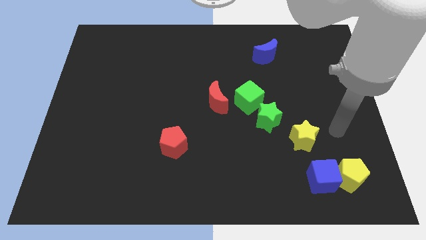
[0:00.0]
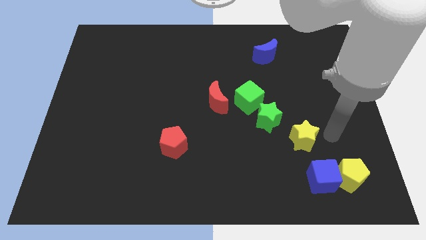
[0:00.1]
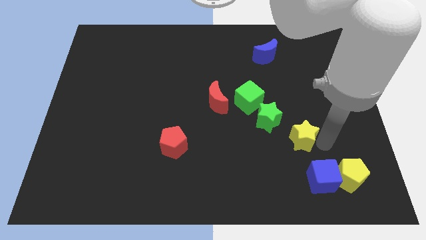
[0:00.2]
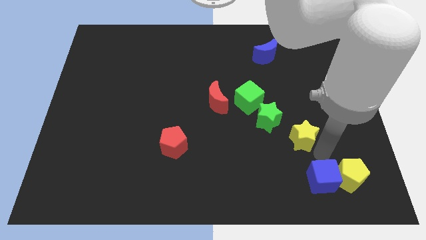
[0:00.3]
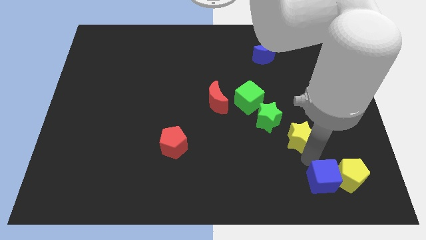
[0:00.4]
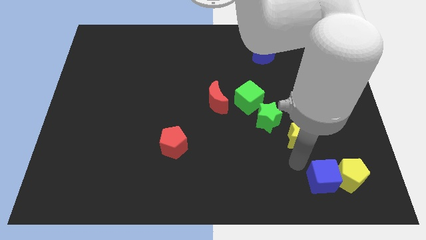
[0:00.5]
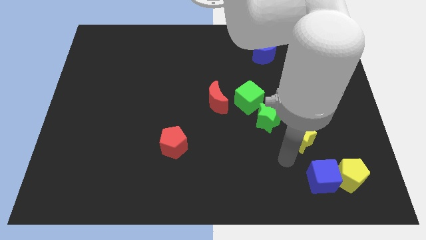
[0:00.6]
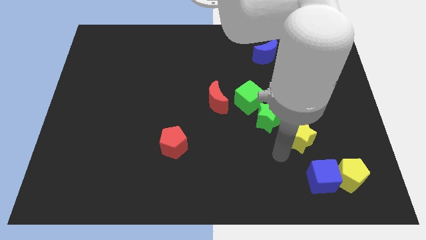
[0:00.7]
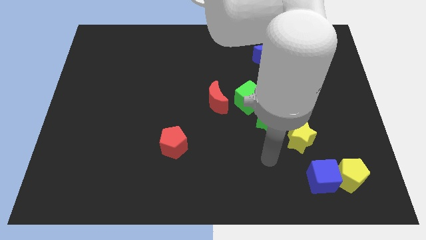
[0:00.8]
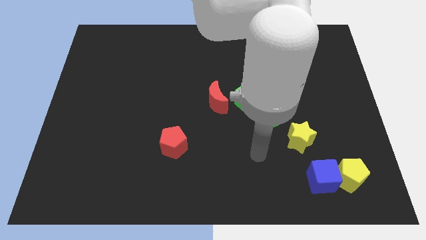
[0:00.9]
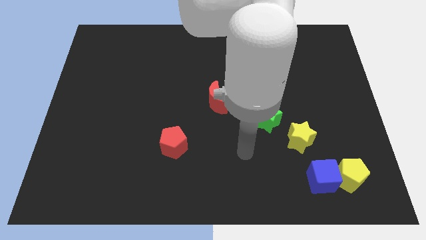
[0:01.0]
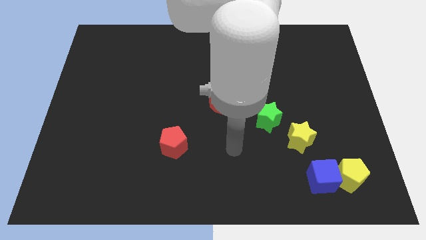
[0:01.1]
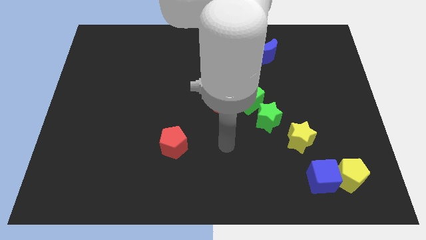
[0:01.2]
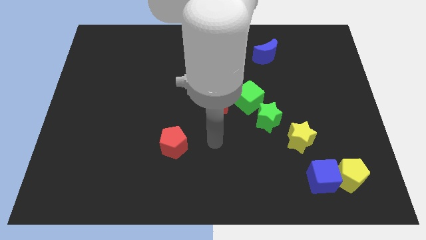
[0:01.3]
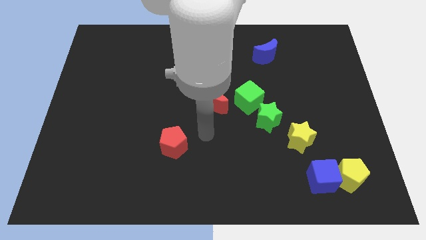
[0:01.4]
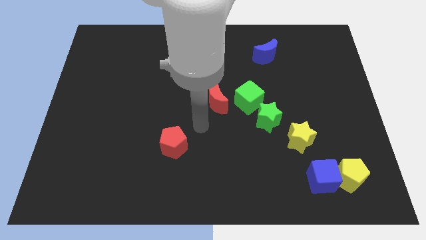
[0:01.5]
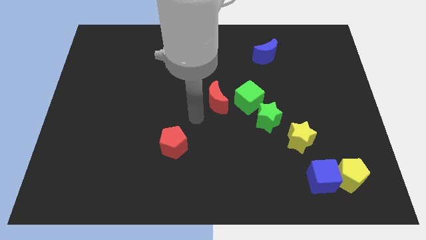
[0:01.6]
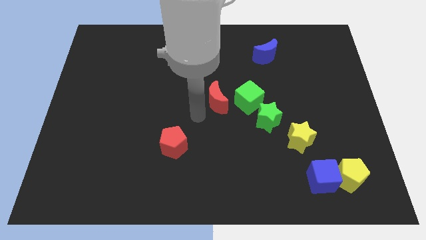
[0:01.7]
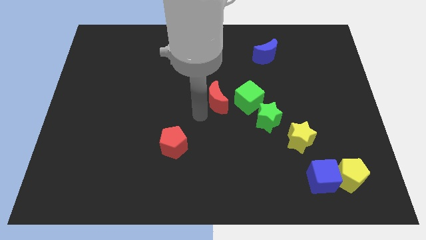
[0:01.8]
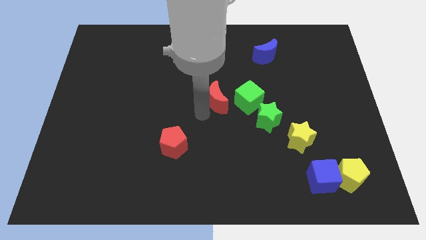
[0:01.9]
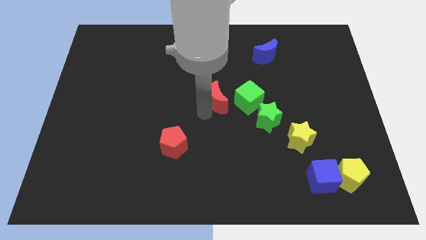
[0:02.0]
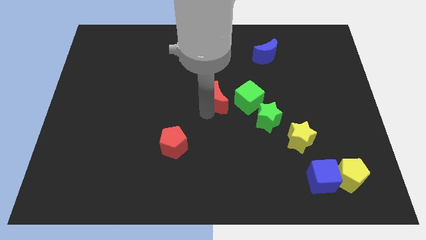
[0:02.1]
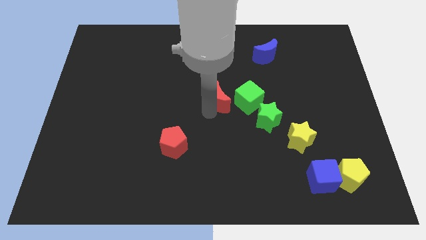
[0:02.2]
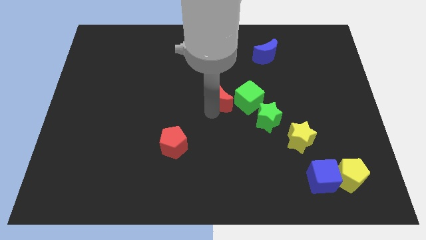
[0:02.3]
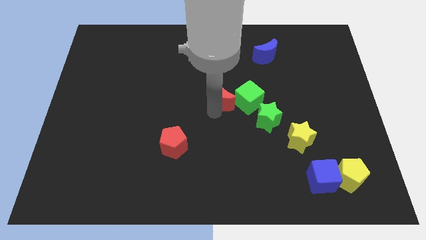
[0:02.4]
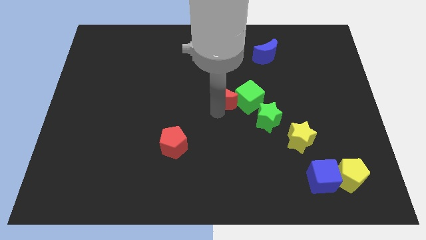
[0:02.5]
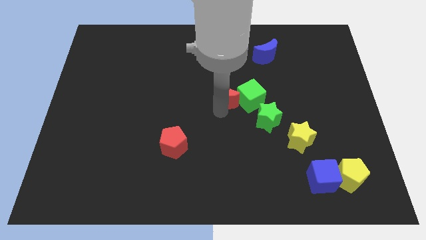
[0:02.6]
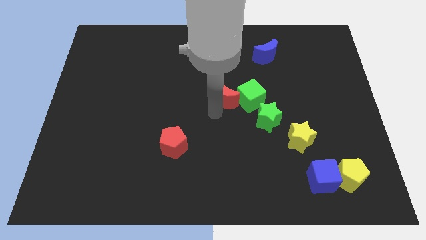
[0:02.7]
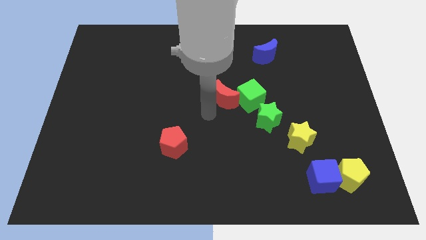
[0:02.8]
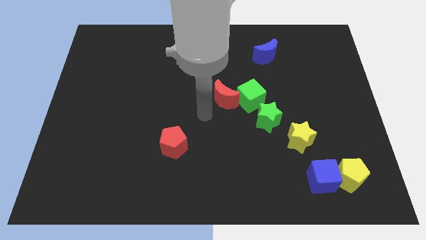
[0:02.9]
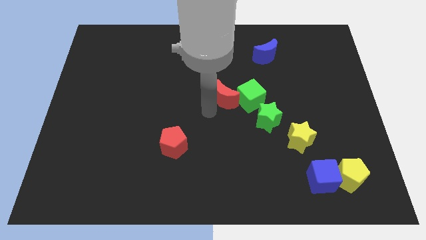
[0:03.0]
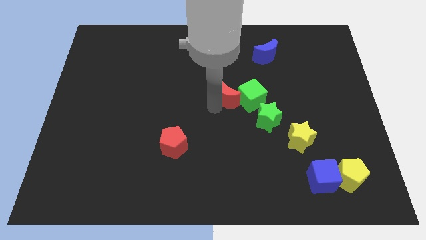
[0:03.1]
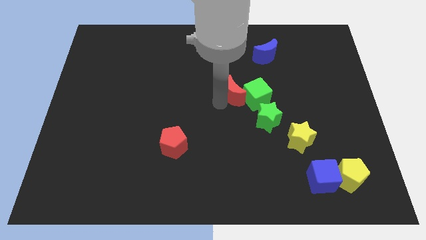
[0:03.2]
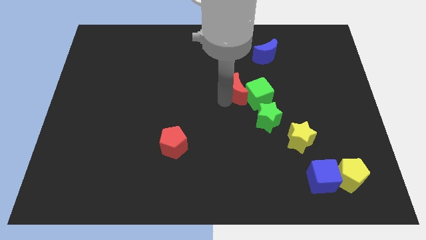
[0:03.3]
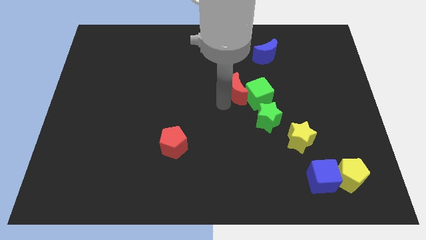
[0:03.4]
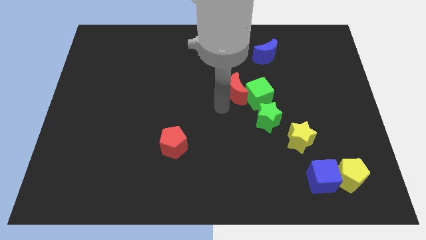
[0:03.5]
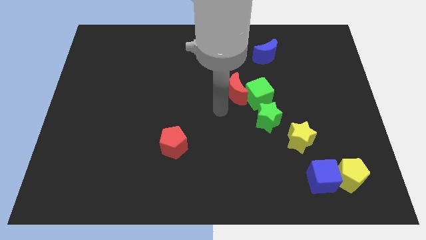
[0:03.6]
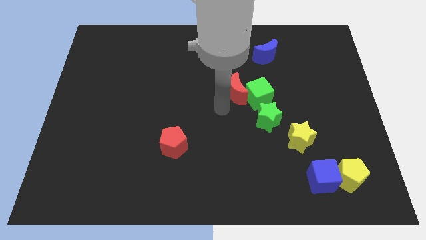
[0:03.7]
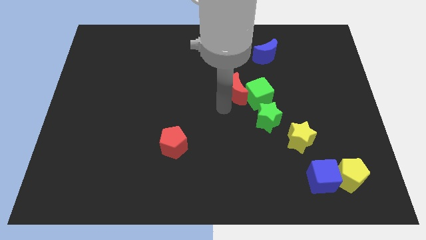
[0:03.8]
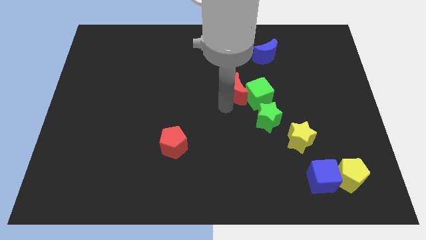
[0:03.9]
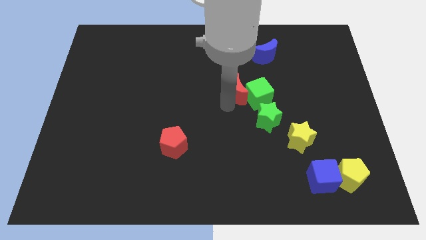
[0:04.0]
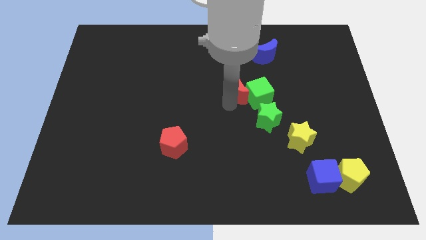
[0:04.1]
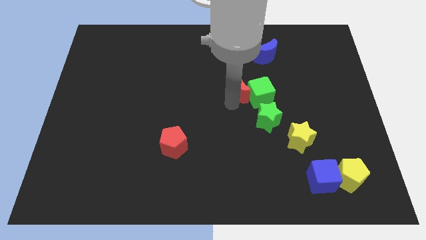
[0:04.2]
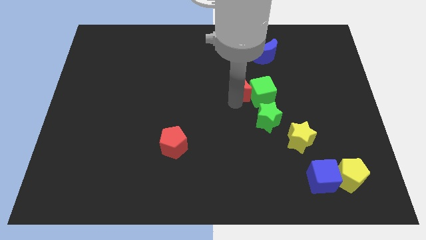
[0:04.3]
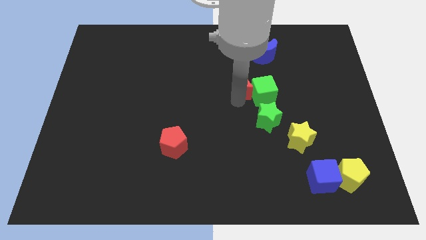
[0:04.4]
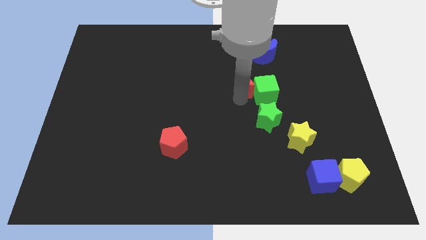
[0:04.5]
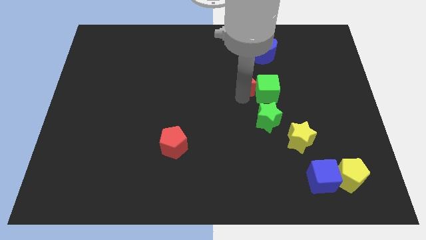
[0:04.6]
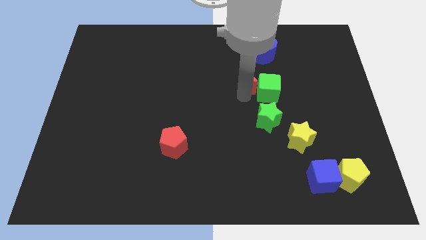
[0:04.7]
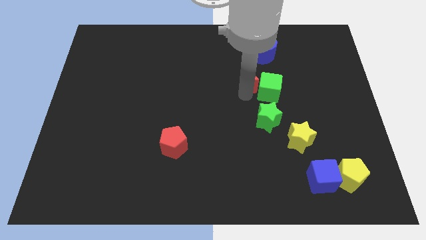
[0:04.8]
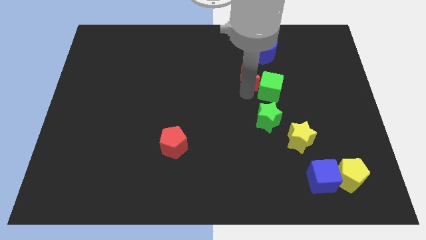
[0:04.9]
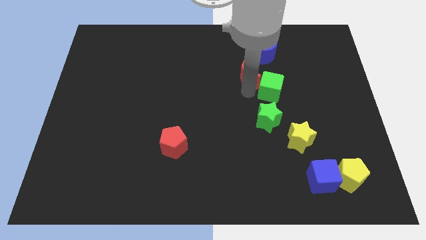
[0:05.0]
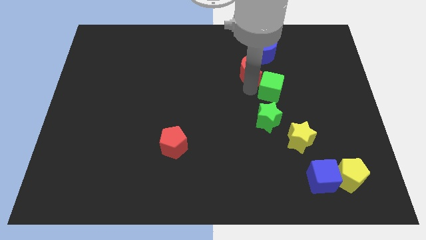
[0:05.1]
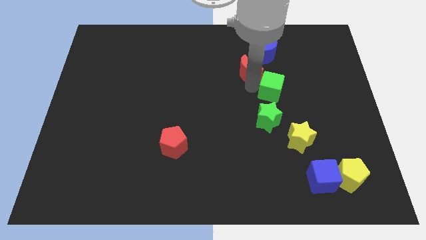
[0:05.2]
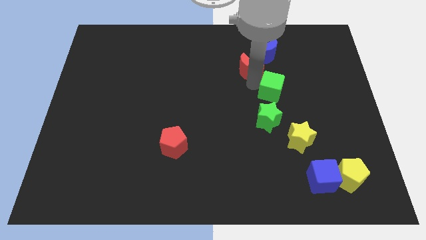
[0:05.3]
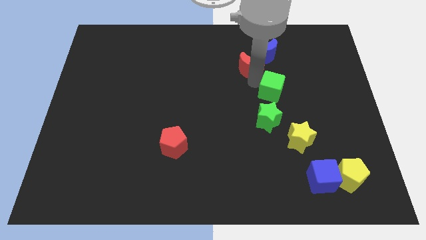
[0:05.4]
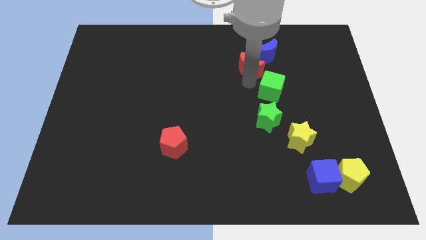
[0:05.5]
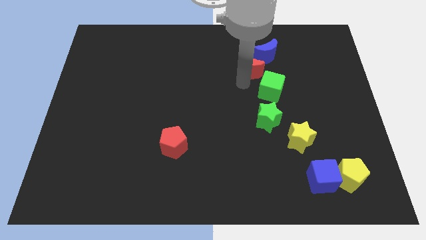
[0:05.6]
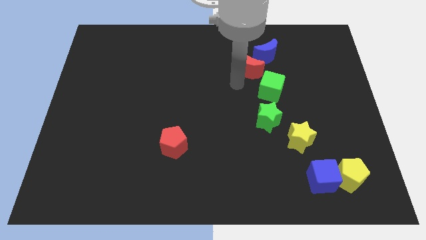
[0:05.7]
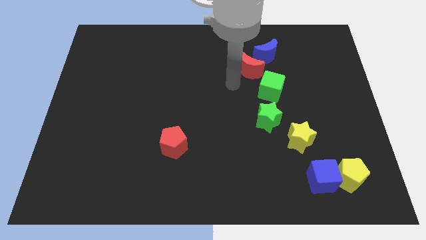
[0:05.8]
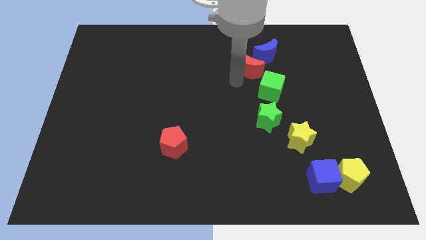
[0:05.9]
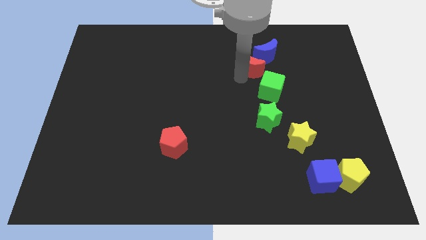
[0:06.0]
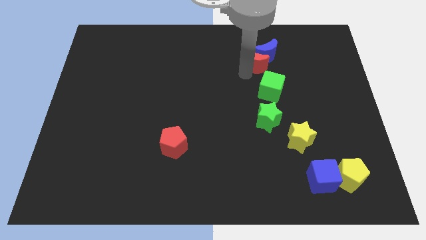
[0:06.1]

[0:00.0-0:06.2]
slide the red moon to the blue moon

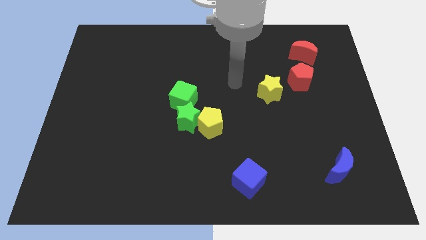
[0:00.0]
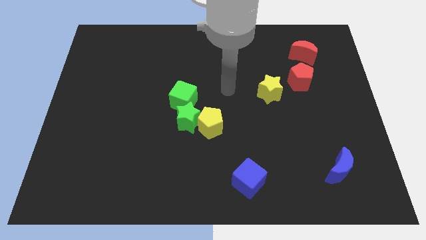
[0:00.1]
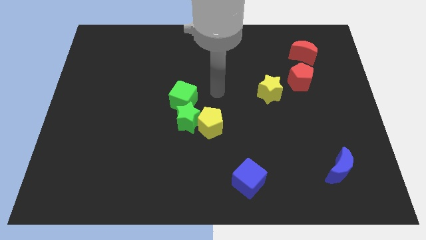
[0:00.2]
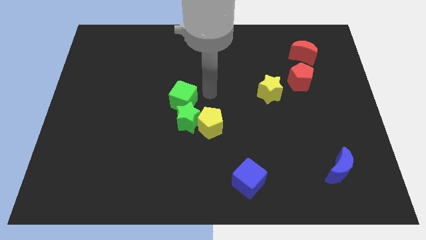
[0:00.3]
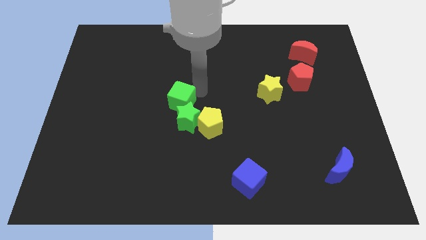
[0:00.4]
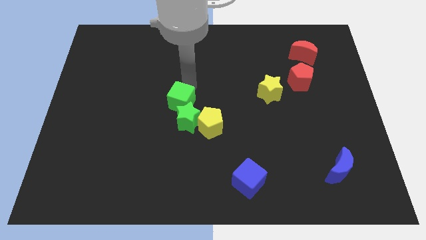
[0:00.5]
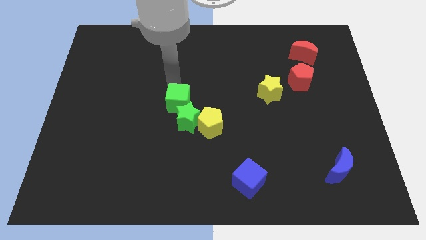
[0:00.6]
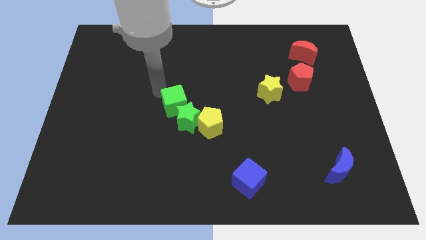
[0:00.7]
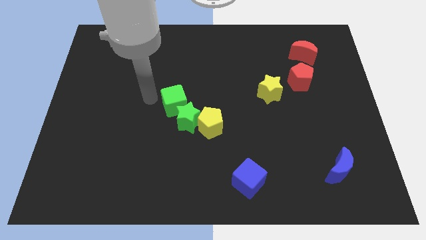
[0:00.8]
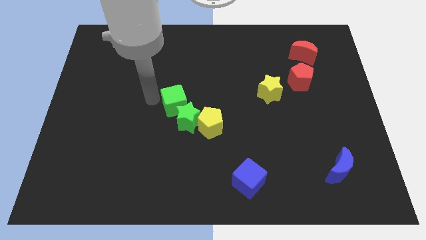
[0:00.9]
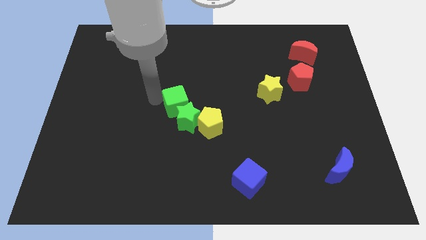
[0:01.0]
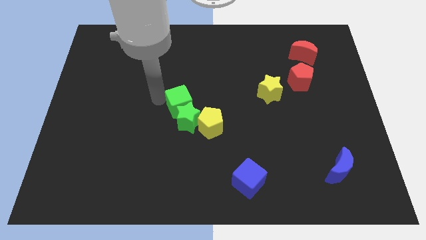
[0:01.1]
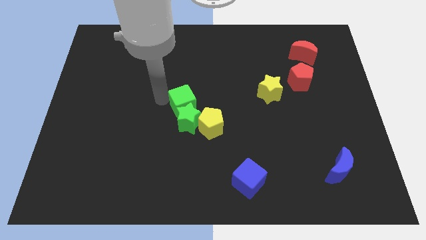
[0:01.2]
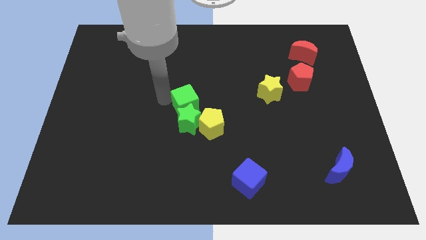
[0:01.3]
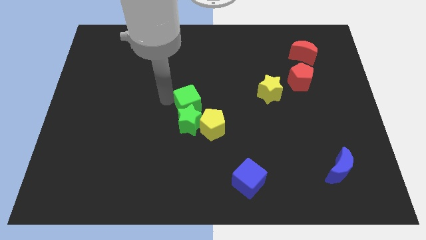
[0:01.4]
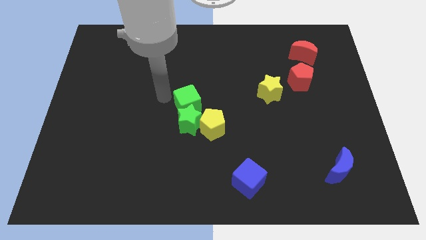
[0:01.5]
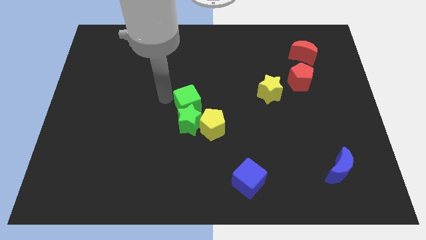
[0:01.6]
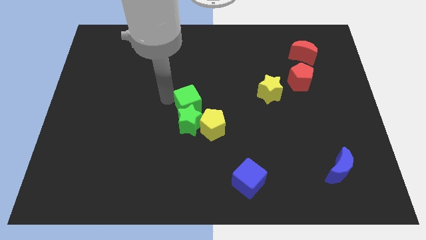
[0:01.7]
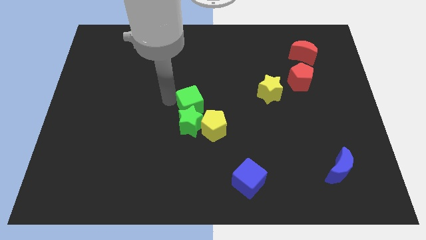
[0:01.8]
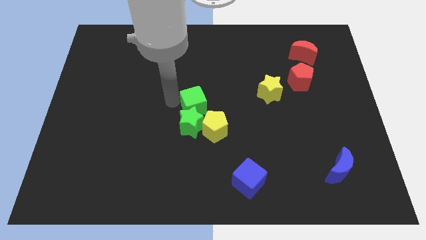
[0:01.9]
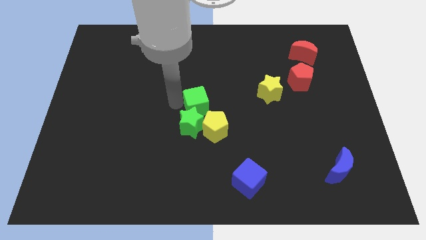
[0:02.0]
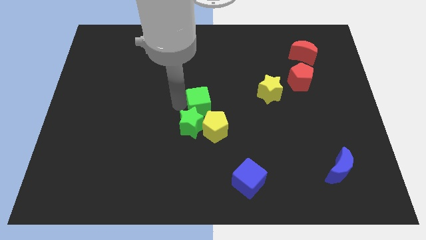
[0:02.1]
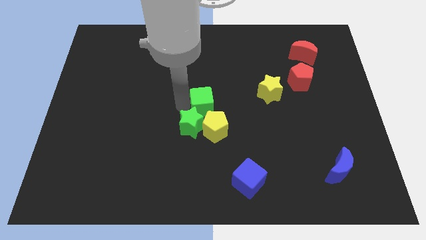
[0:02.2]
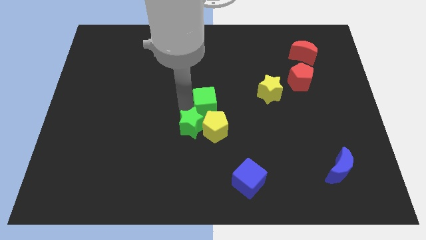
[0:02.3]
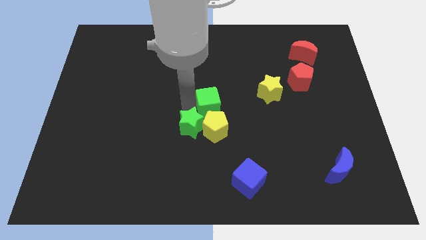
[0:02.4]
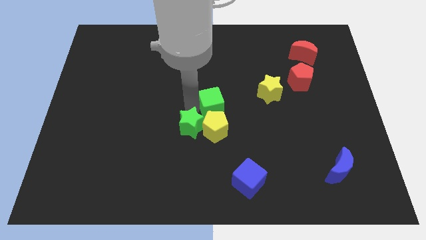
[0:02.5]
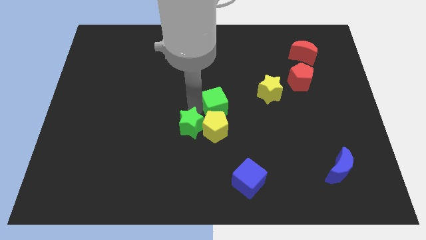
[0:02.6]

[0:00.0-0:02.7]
put the green cube next to the yellow pentagon
